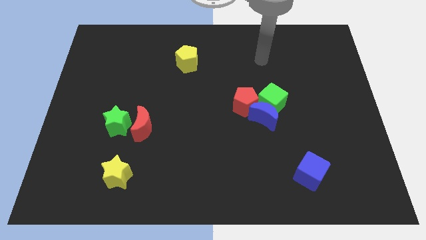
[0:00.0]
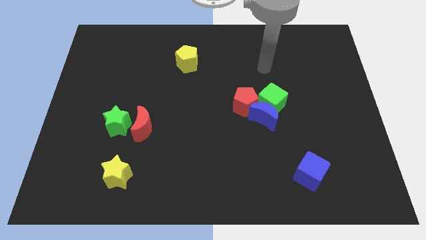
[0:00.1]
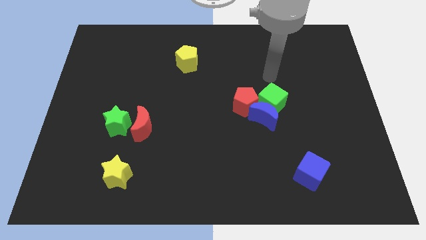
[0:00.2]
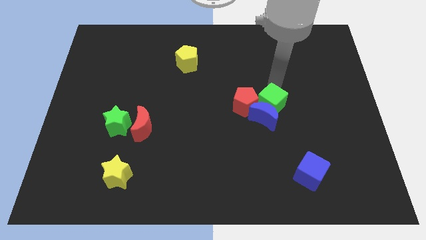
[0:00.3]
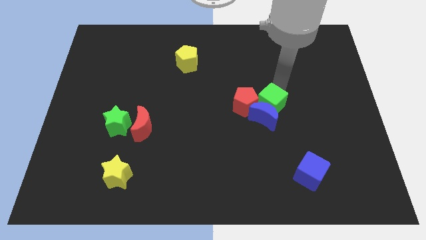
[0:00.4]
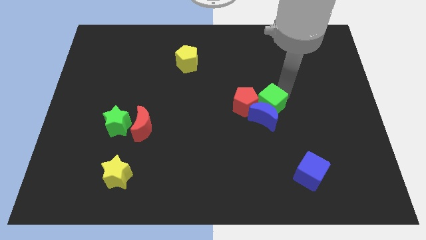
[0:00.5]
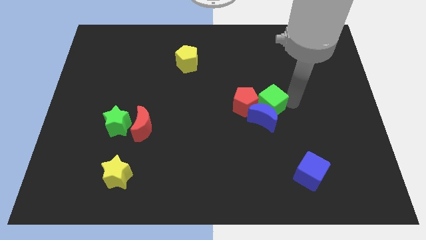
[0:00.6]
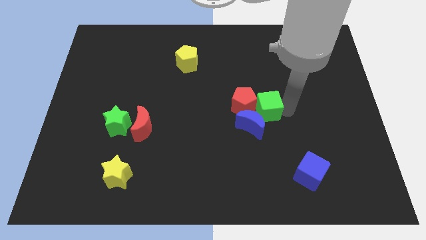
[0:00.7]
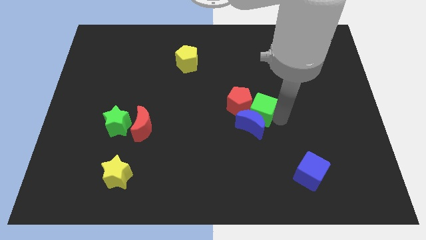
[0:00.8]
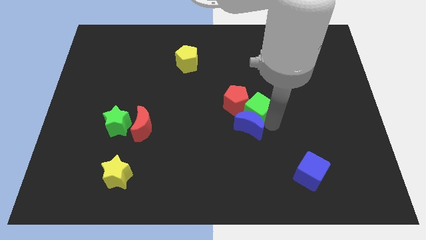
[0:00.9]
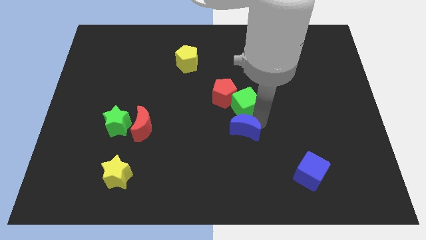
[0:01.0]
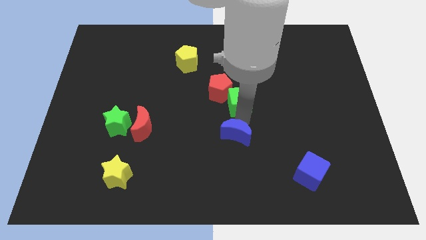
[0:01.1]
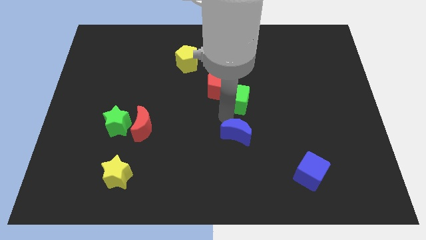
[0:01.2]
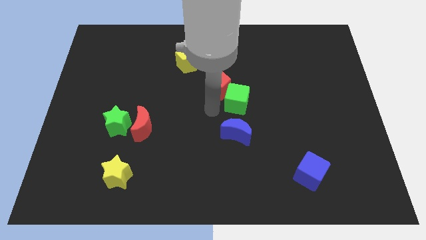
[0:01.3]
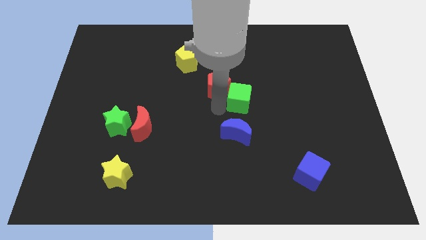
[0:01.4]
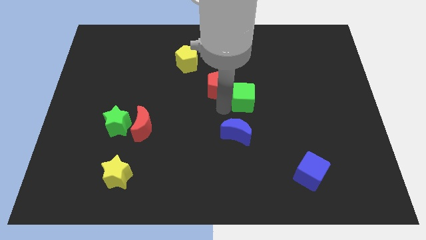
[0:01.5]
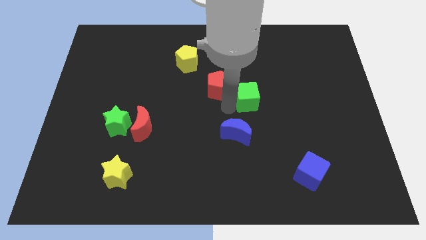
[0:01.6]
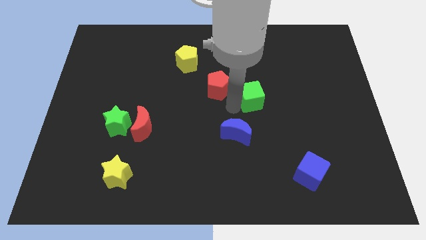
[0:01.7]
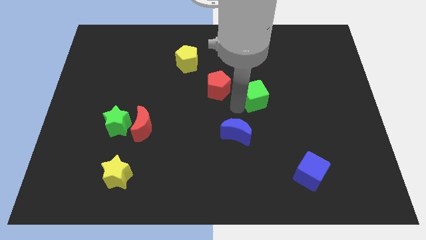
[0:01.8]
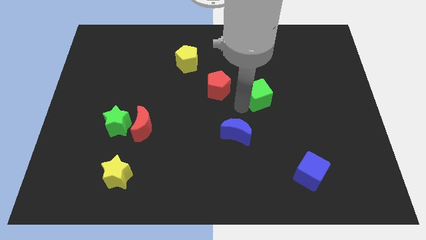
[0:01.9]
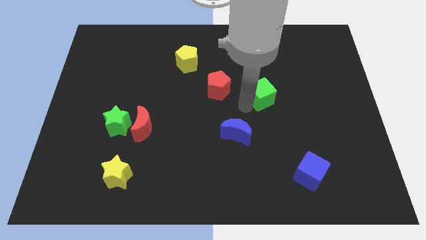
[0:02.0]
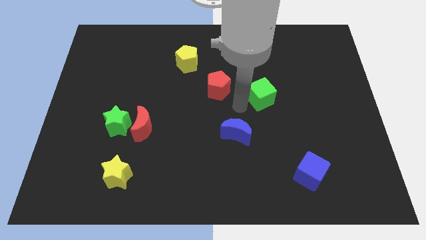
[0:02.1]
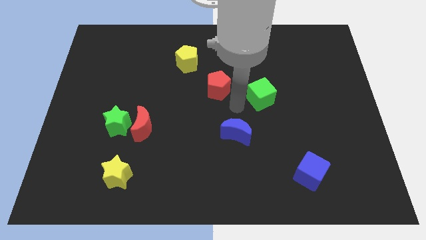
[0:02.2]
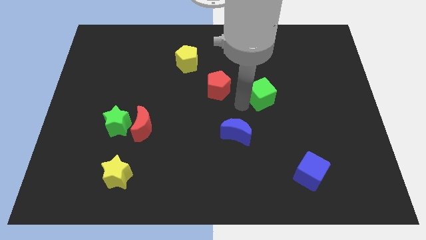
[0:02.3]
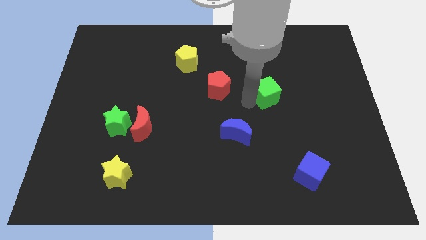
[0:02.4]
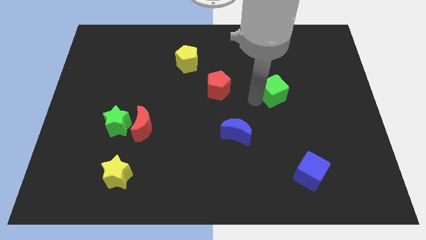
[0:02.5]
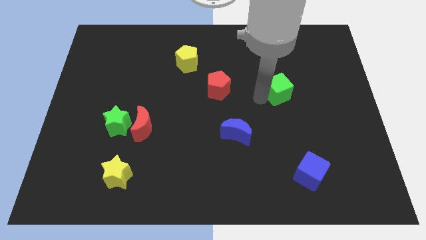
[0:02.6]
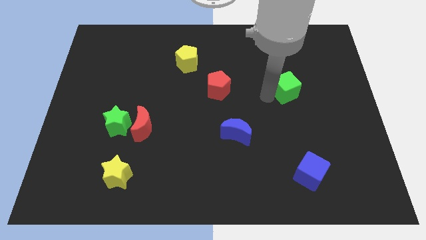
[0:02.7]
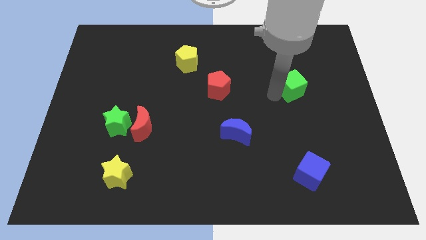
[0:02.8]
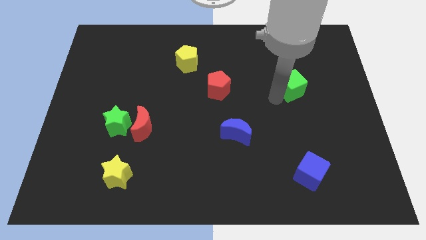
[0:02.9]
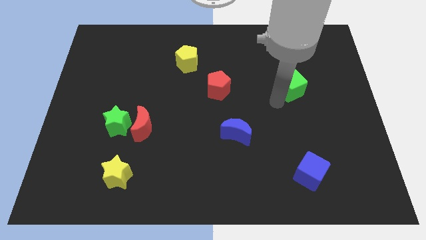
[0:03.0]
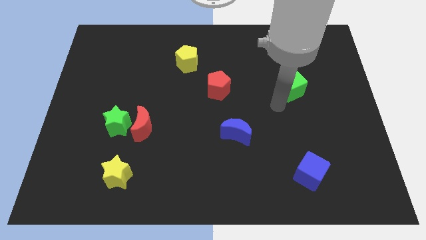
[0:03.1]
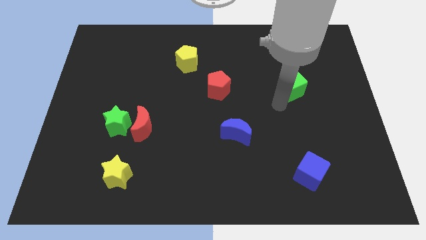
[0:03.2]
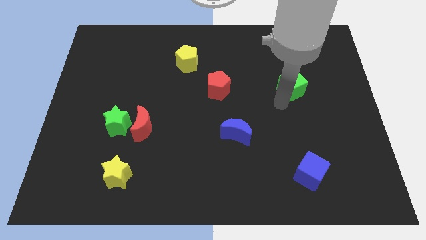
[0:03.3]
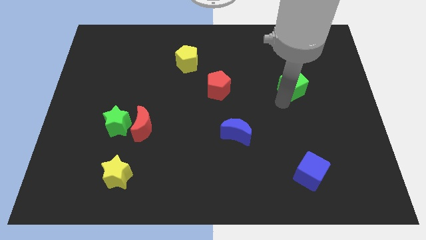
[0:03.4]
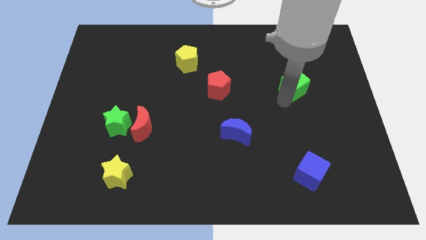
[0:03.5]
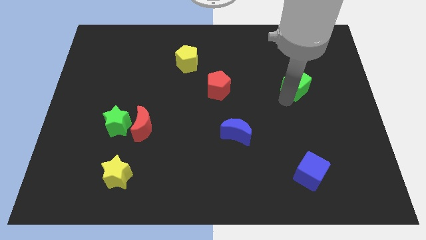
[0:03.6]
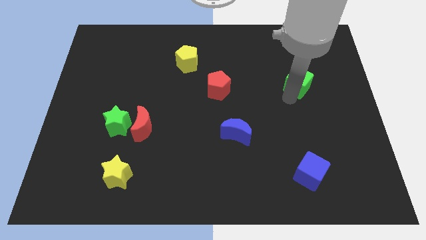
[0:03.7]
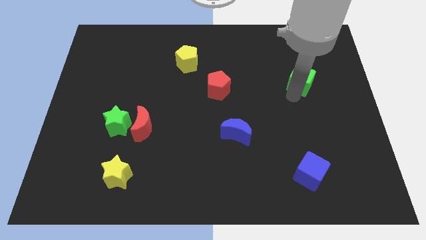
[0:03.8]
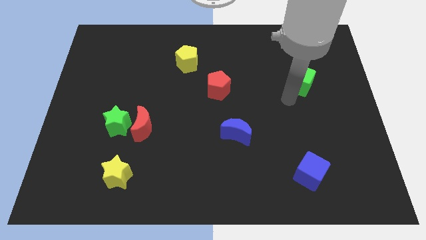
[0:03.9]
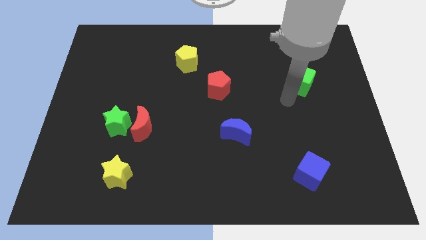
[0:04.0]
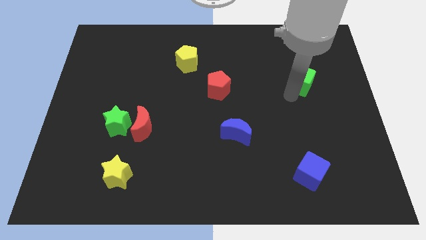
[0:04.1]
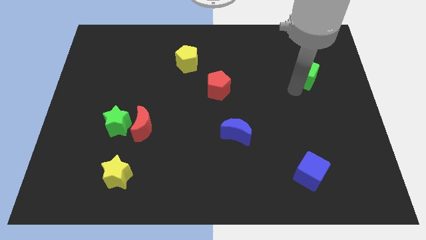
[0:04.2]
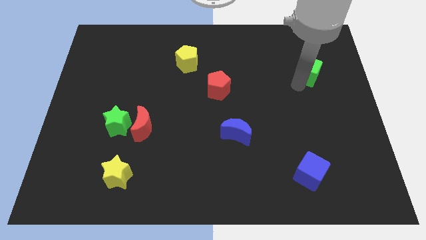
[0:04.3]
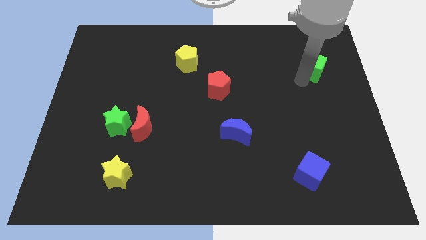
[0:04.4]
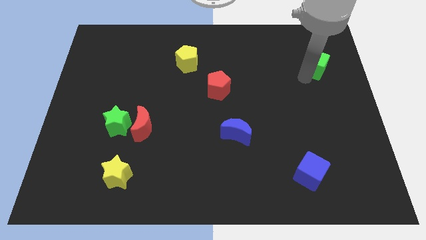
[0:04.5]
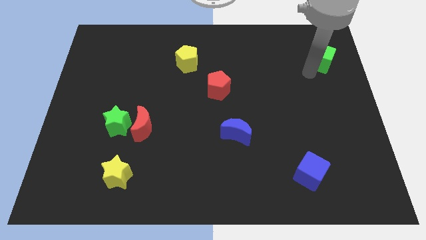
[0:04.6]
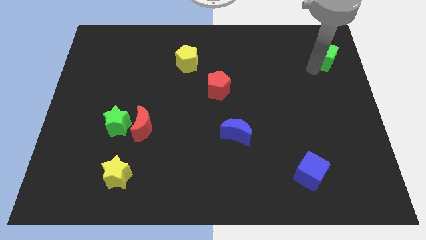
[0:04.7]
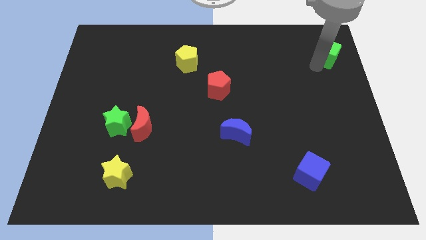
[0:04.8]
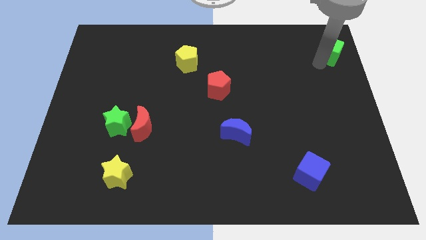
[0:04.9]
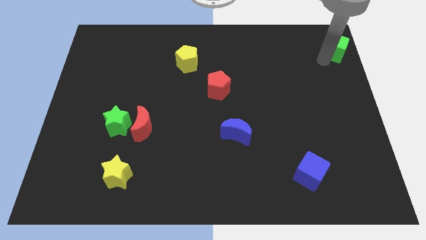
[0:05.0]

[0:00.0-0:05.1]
slide the green cube to the top right of the board

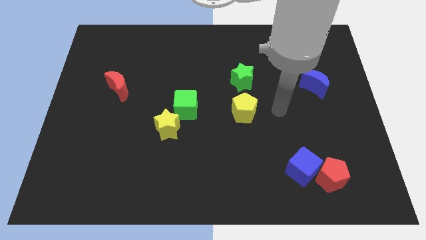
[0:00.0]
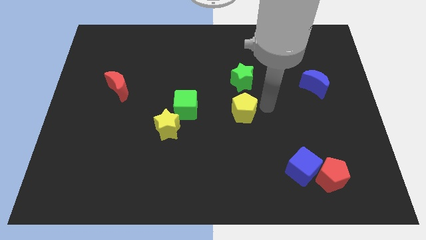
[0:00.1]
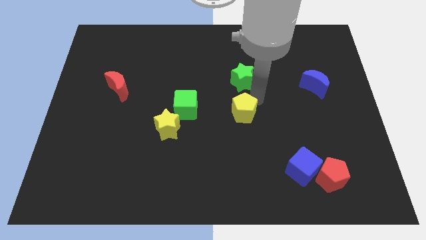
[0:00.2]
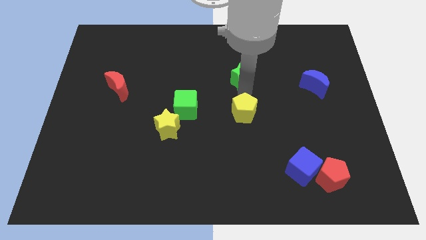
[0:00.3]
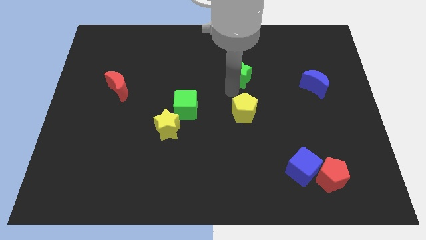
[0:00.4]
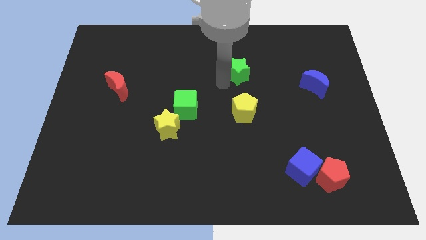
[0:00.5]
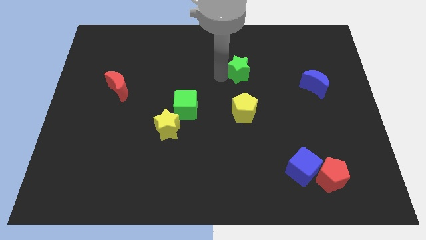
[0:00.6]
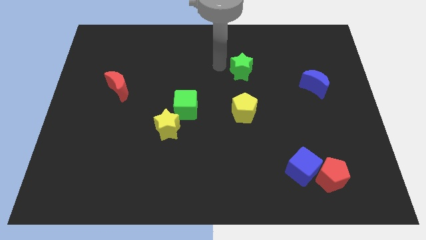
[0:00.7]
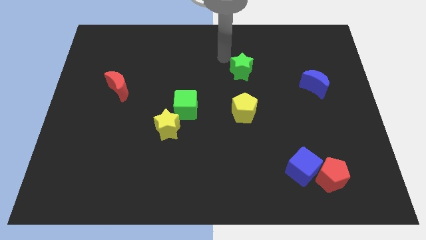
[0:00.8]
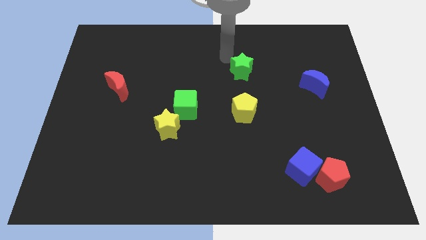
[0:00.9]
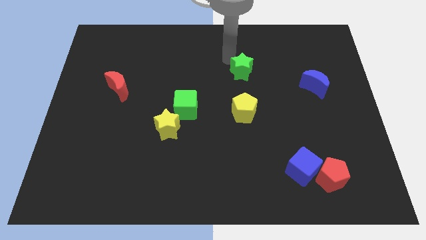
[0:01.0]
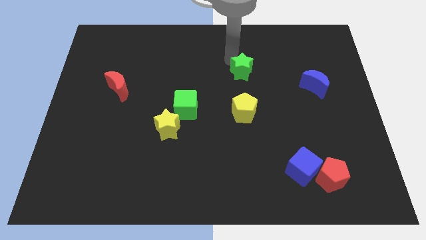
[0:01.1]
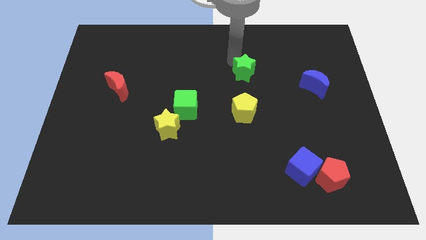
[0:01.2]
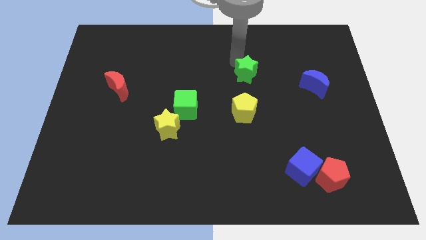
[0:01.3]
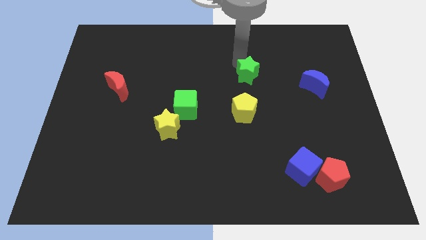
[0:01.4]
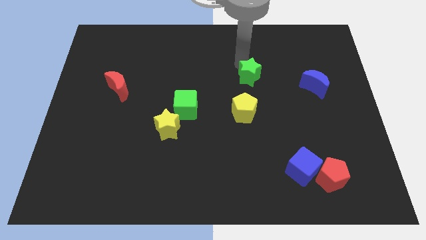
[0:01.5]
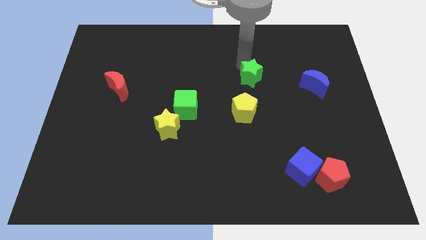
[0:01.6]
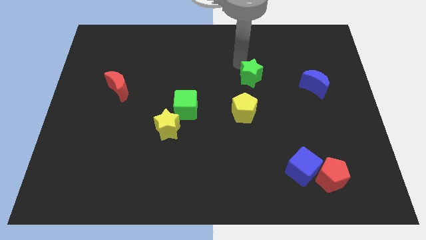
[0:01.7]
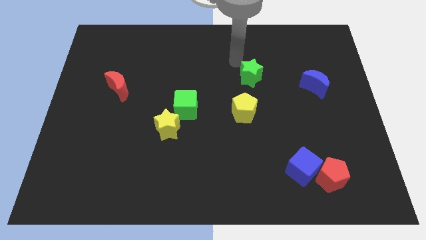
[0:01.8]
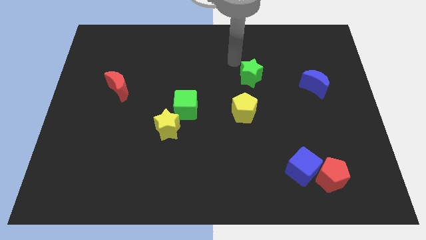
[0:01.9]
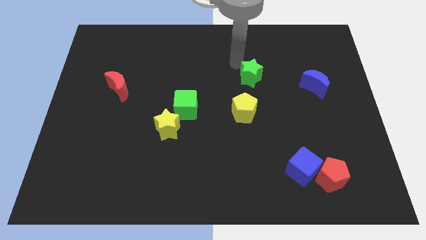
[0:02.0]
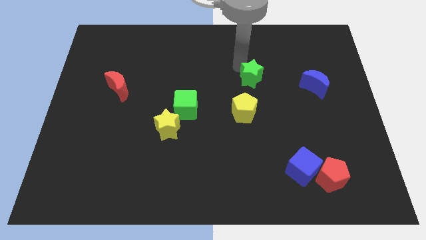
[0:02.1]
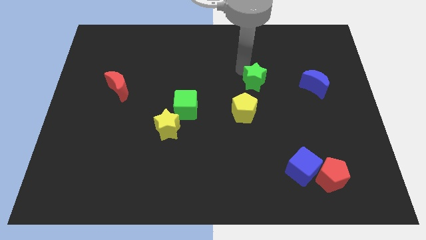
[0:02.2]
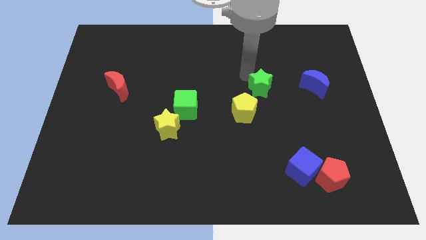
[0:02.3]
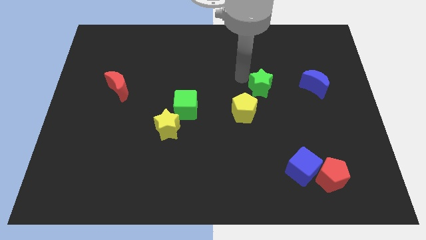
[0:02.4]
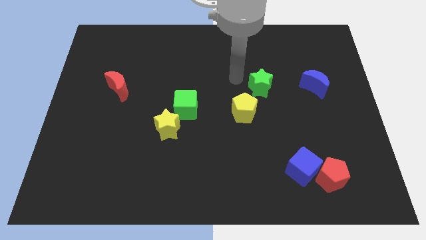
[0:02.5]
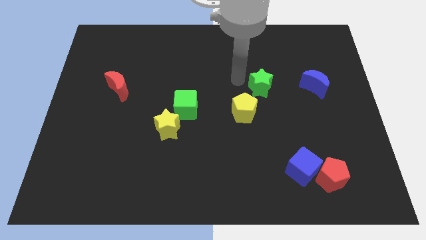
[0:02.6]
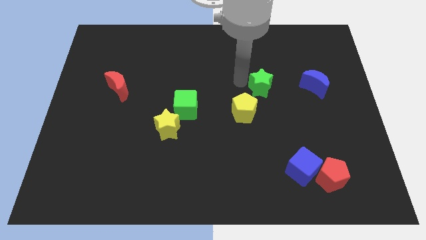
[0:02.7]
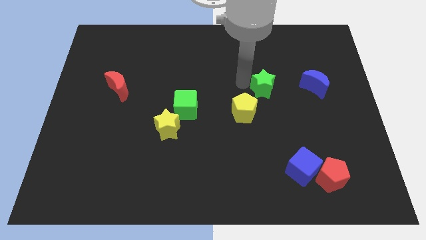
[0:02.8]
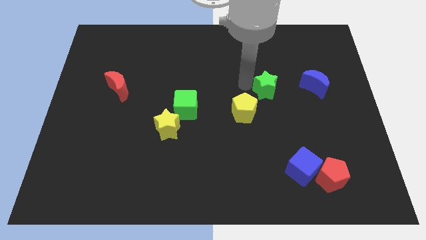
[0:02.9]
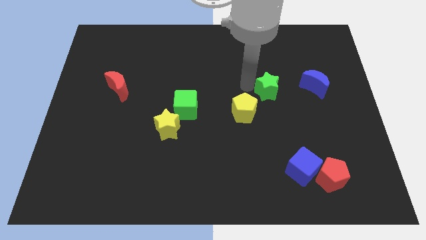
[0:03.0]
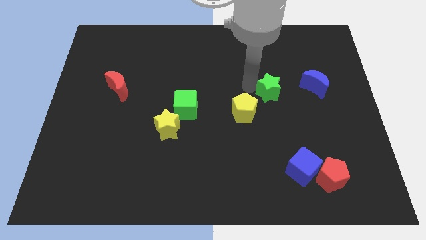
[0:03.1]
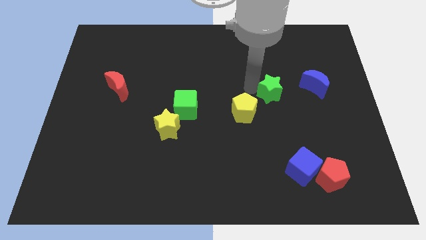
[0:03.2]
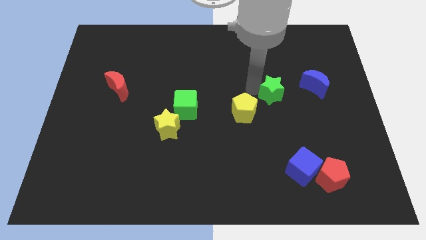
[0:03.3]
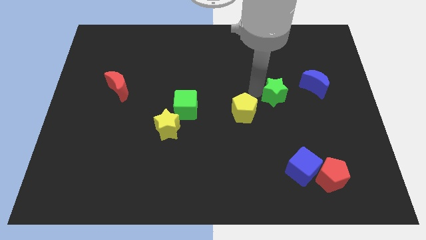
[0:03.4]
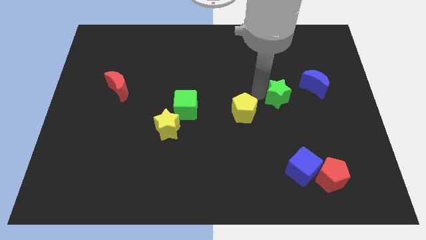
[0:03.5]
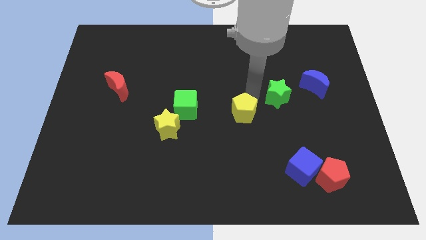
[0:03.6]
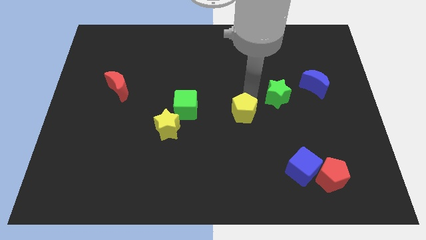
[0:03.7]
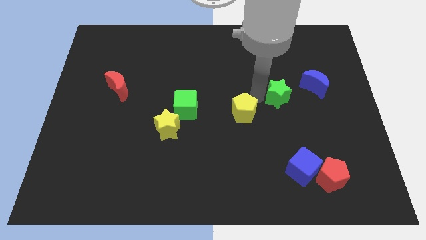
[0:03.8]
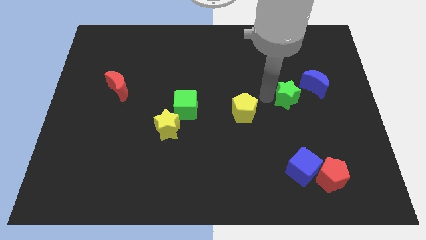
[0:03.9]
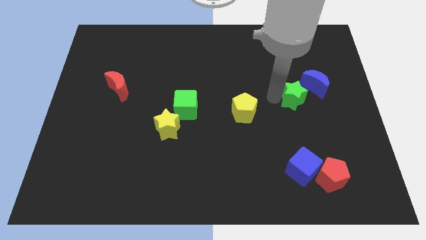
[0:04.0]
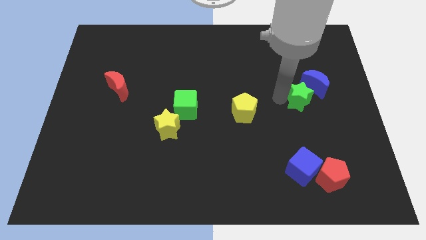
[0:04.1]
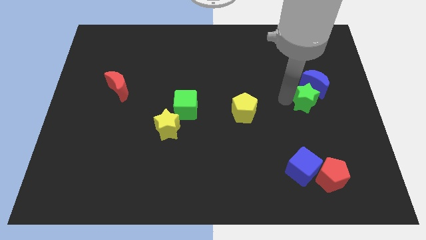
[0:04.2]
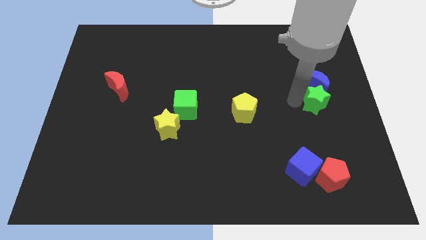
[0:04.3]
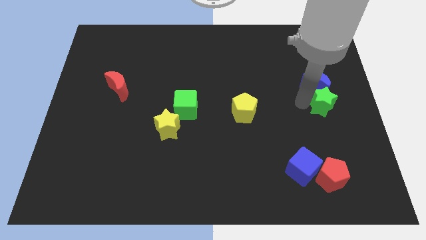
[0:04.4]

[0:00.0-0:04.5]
slide the green star to the center right
